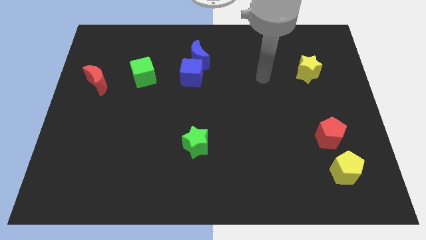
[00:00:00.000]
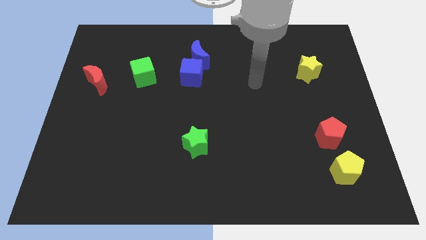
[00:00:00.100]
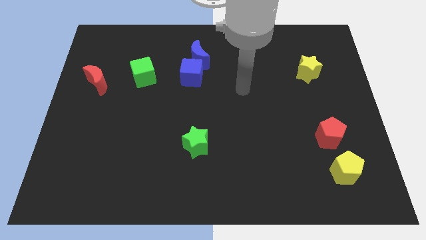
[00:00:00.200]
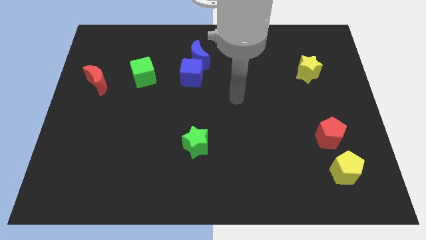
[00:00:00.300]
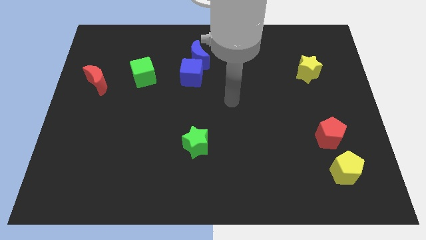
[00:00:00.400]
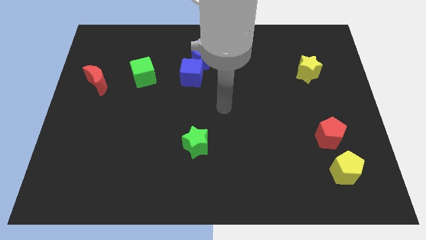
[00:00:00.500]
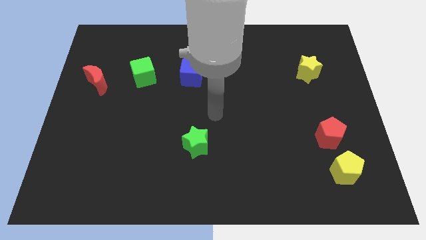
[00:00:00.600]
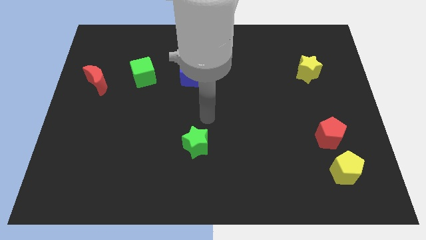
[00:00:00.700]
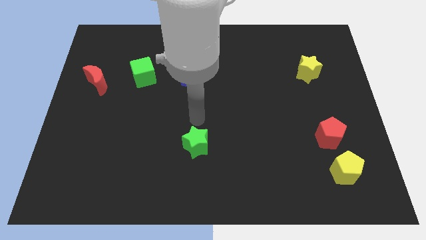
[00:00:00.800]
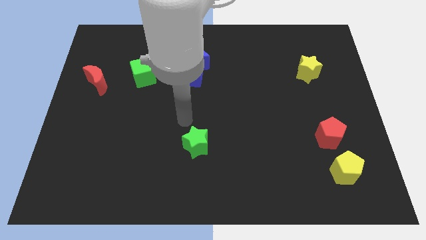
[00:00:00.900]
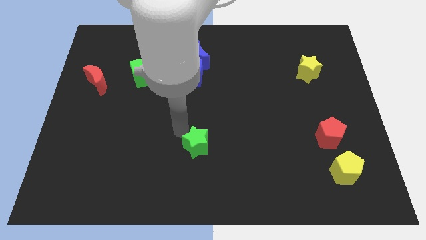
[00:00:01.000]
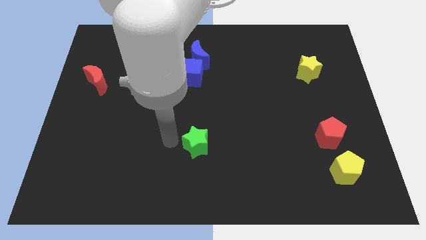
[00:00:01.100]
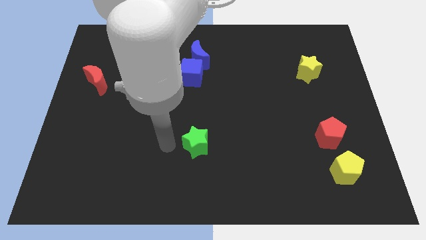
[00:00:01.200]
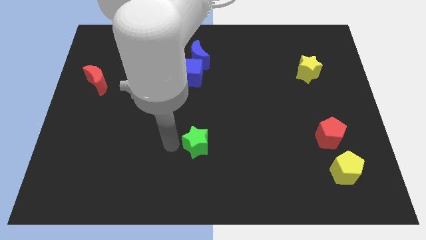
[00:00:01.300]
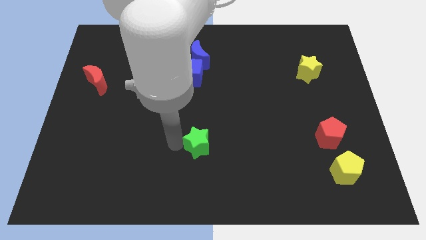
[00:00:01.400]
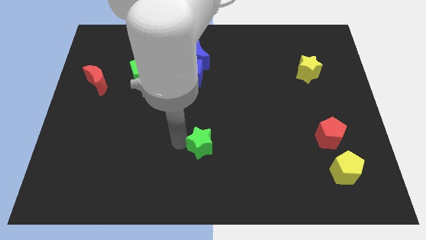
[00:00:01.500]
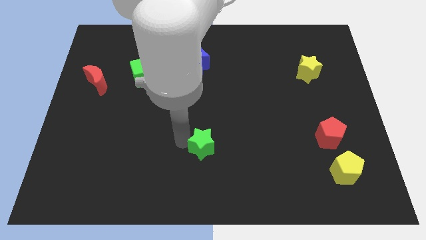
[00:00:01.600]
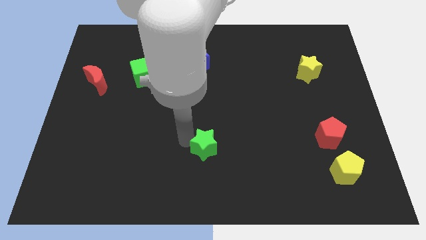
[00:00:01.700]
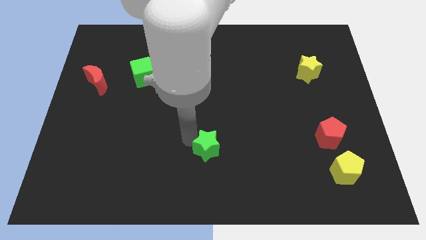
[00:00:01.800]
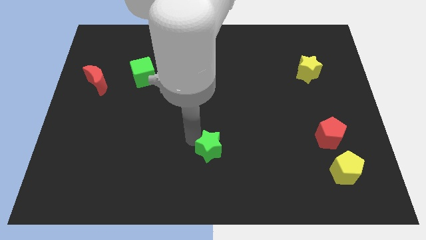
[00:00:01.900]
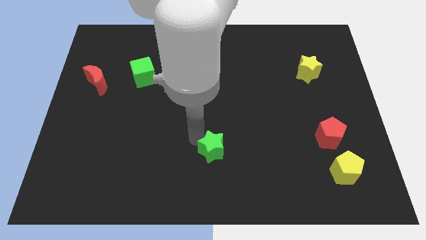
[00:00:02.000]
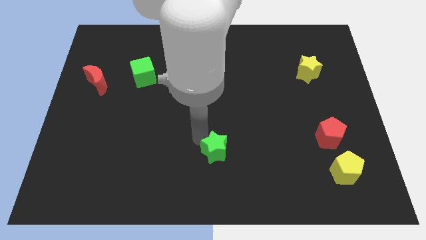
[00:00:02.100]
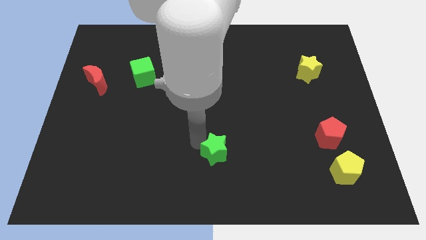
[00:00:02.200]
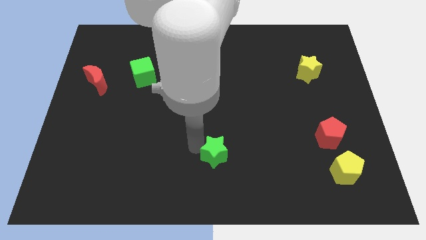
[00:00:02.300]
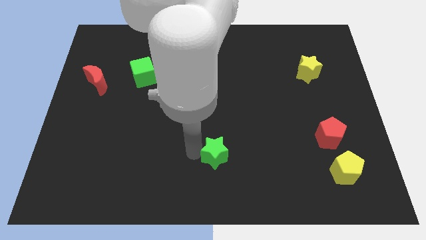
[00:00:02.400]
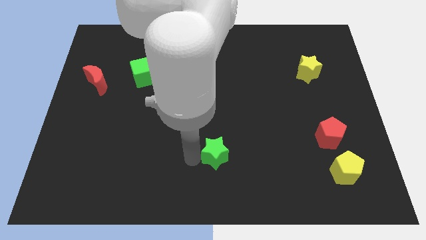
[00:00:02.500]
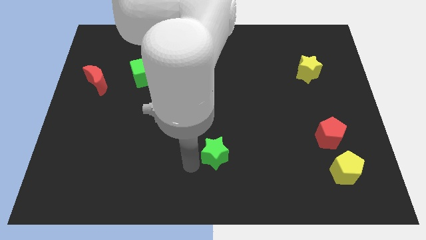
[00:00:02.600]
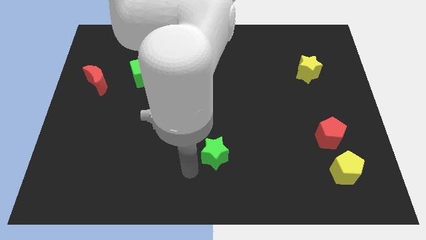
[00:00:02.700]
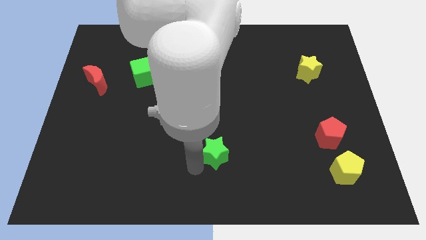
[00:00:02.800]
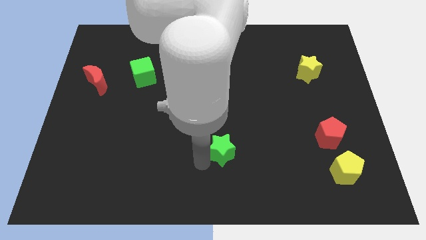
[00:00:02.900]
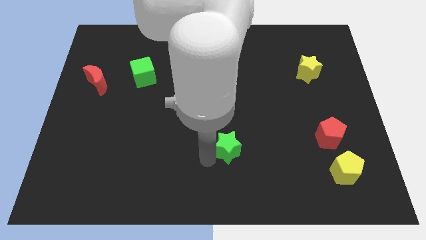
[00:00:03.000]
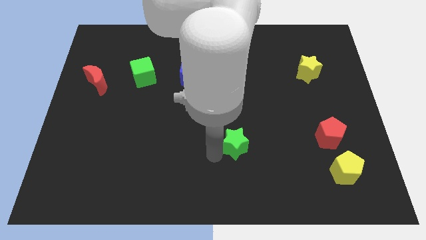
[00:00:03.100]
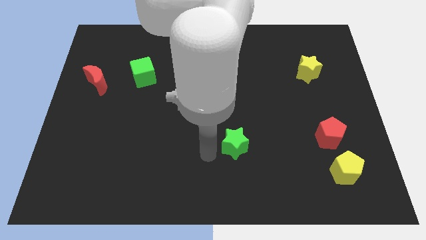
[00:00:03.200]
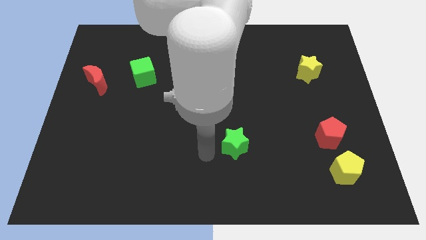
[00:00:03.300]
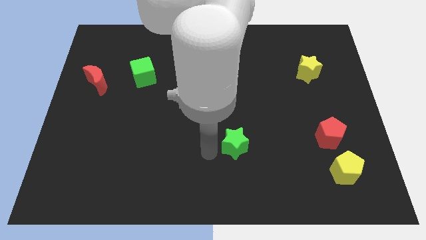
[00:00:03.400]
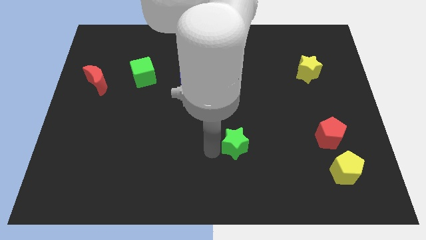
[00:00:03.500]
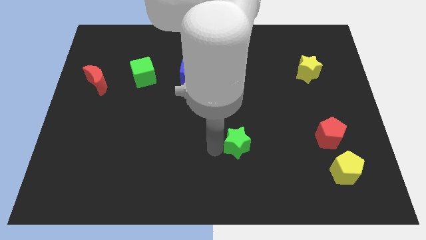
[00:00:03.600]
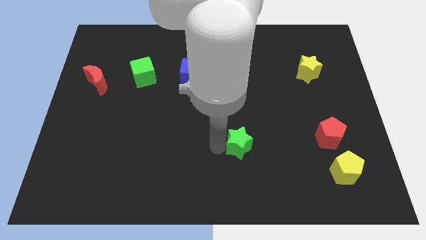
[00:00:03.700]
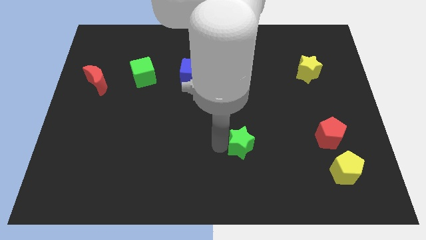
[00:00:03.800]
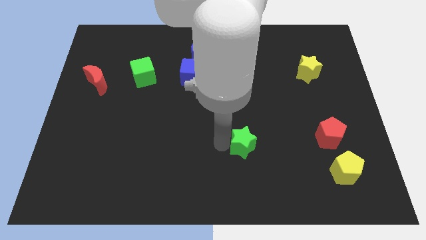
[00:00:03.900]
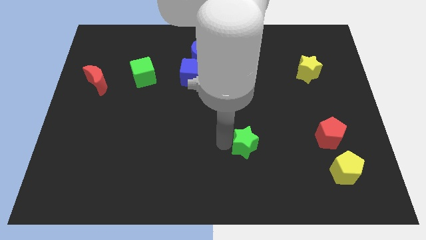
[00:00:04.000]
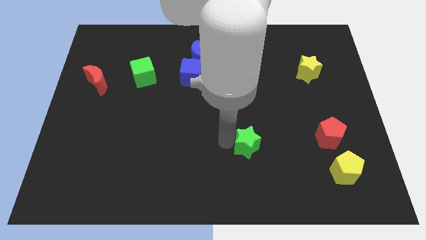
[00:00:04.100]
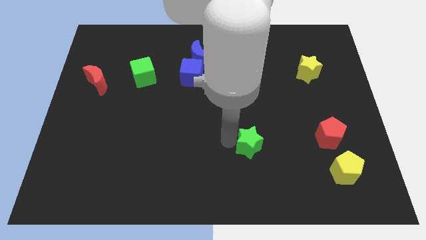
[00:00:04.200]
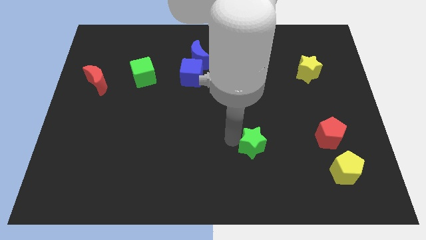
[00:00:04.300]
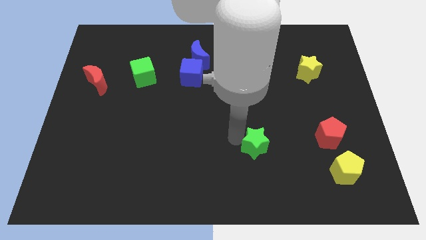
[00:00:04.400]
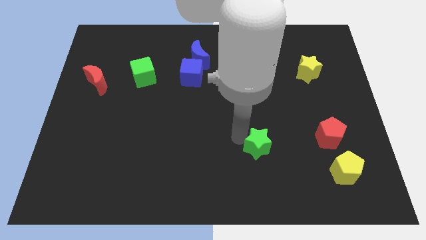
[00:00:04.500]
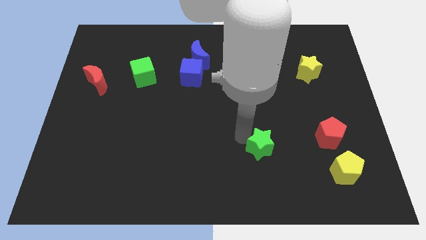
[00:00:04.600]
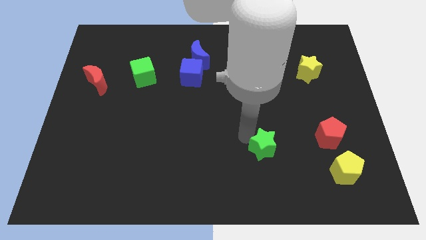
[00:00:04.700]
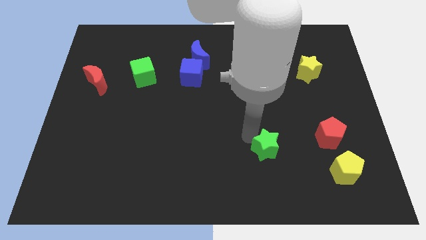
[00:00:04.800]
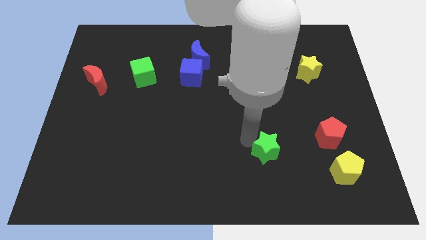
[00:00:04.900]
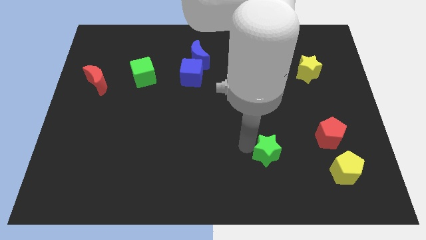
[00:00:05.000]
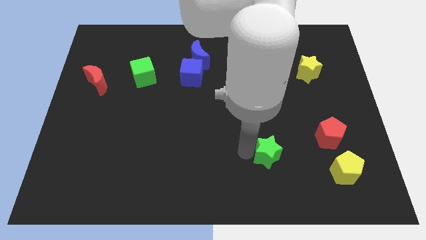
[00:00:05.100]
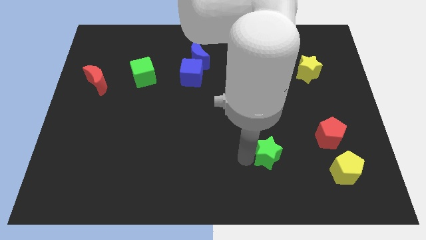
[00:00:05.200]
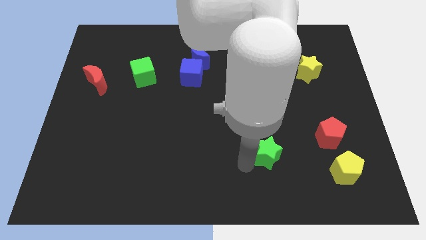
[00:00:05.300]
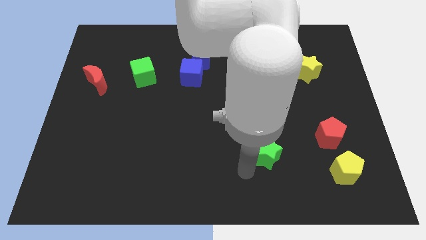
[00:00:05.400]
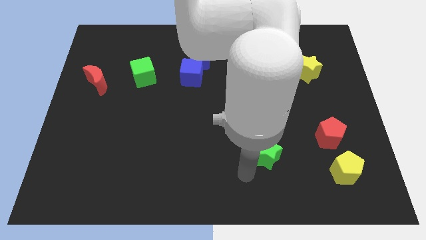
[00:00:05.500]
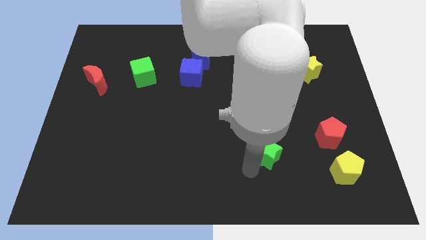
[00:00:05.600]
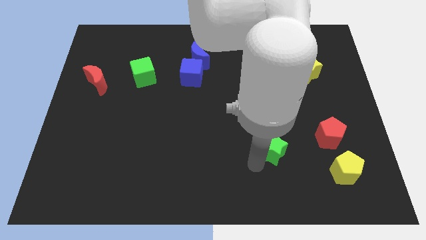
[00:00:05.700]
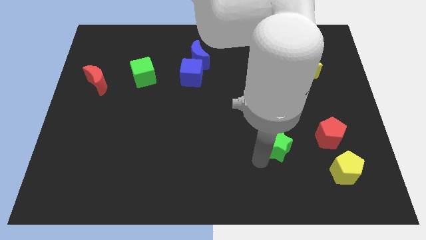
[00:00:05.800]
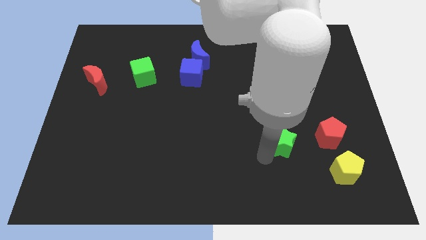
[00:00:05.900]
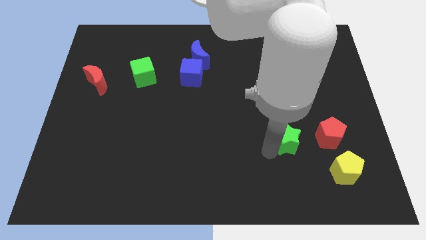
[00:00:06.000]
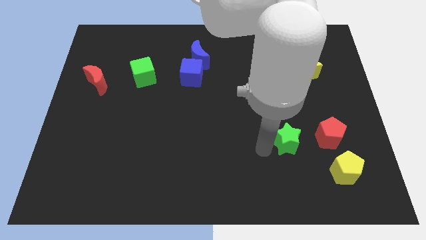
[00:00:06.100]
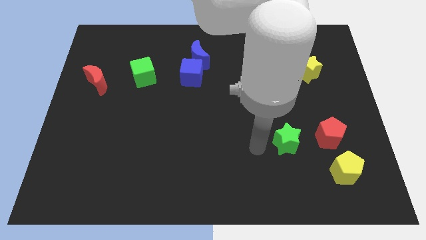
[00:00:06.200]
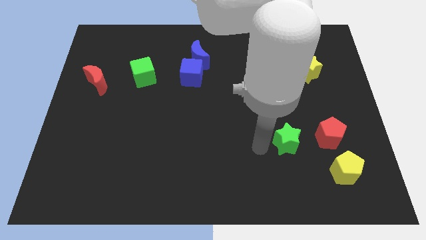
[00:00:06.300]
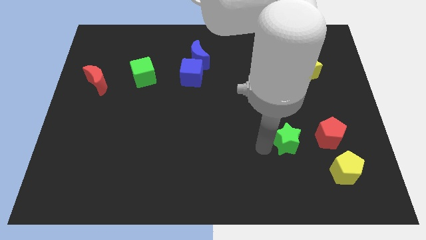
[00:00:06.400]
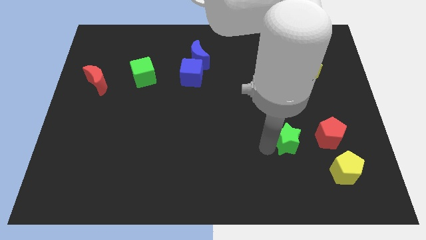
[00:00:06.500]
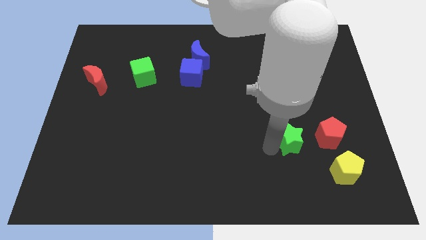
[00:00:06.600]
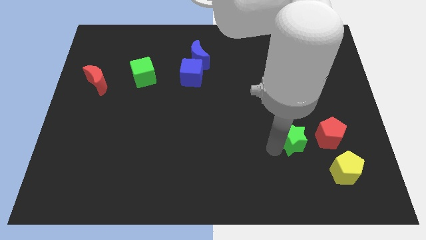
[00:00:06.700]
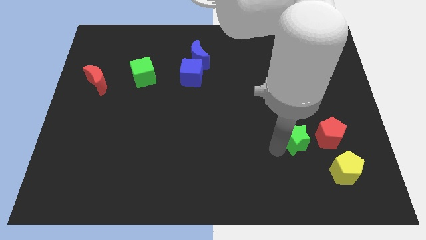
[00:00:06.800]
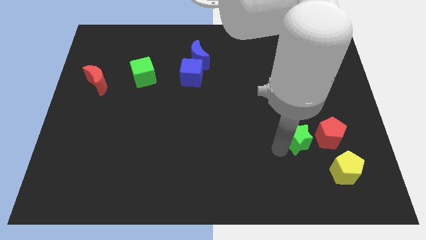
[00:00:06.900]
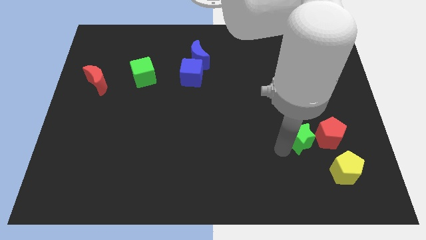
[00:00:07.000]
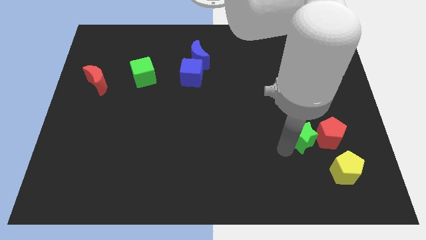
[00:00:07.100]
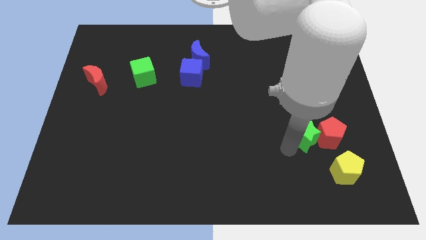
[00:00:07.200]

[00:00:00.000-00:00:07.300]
put the green star towards the red pentagon
